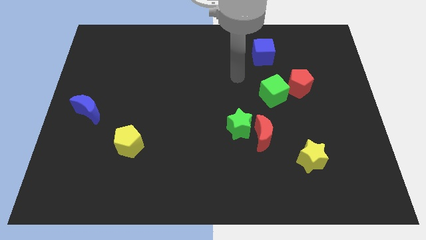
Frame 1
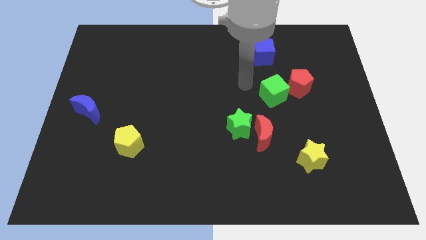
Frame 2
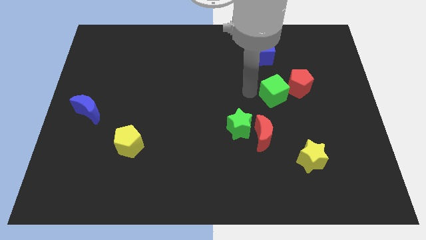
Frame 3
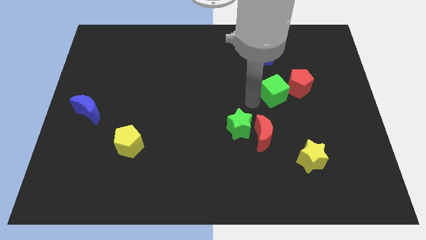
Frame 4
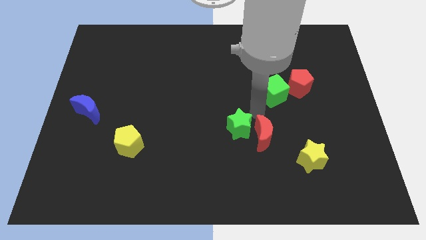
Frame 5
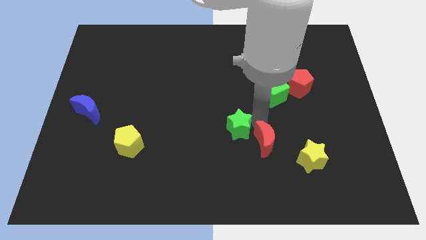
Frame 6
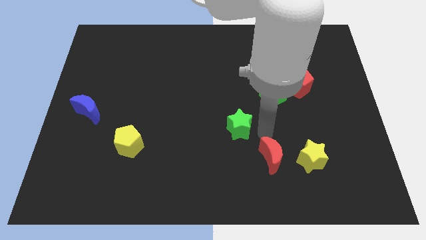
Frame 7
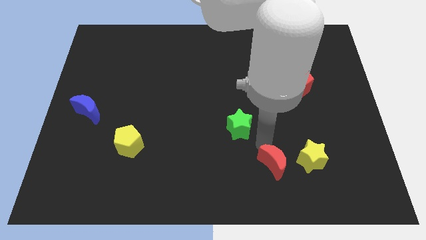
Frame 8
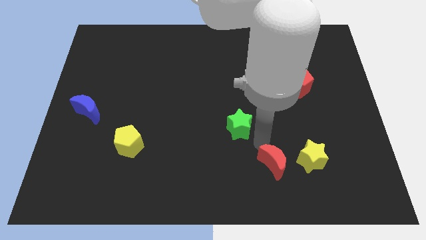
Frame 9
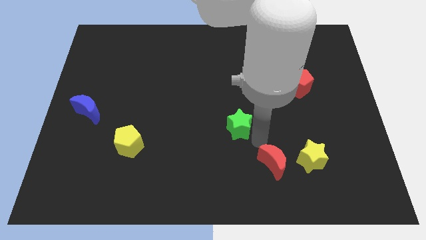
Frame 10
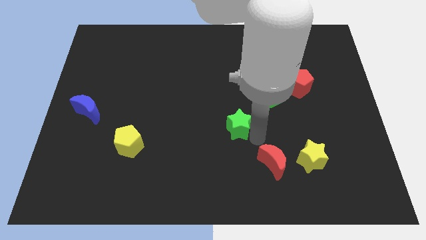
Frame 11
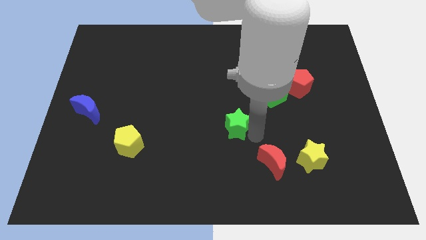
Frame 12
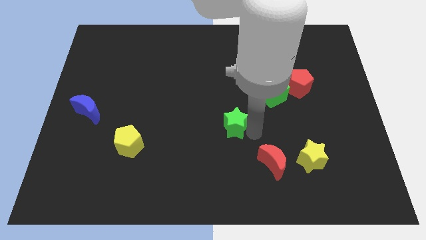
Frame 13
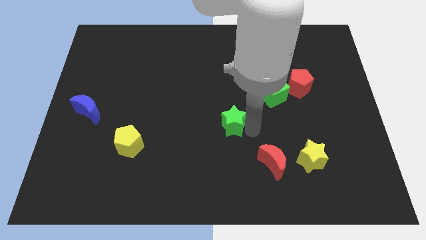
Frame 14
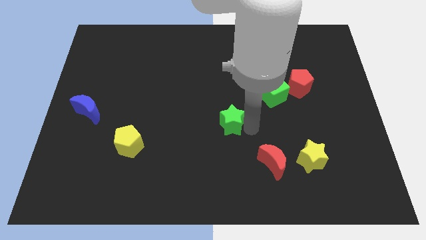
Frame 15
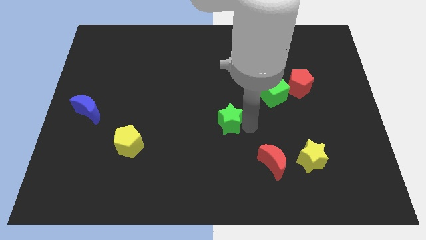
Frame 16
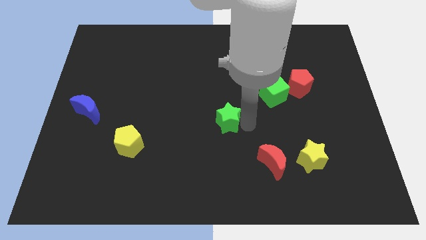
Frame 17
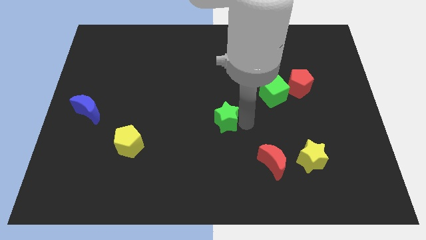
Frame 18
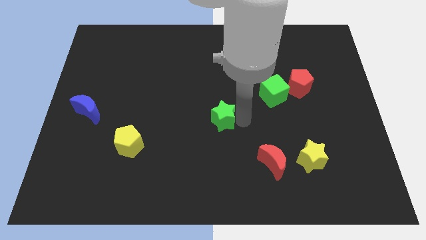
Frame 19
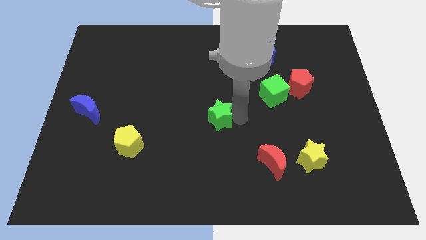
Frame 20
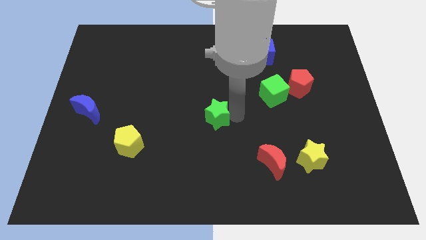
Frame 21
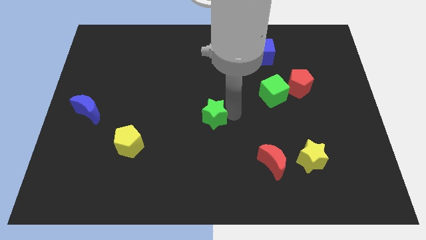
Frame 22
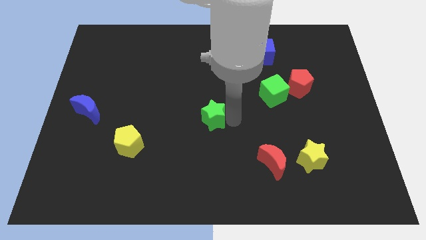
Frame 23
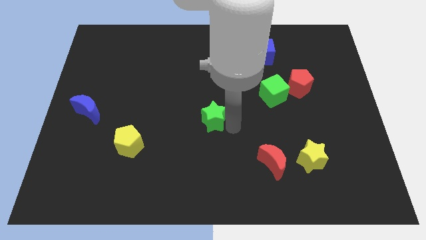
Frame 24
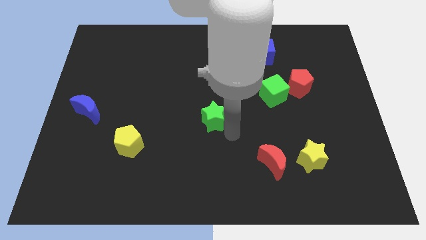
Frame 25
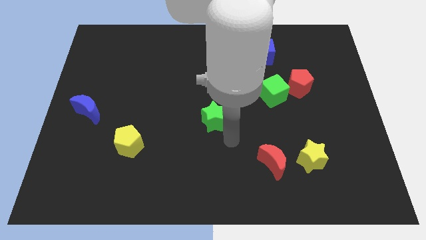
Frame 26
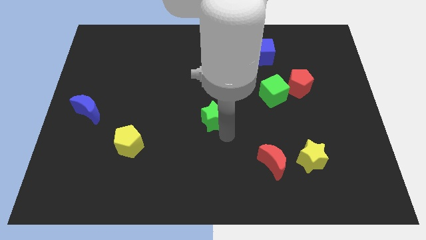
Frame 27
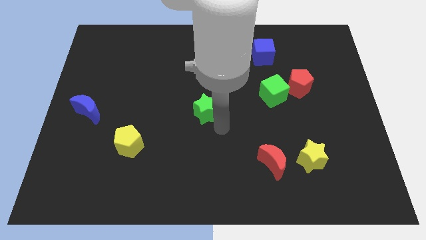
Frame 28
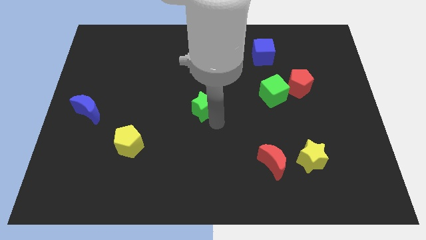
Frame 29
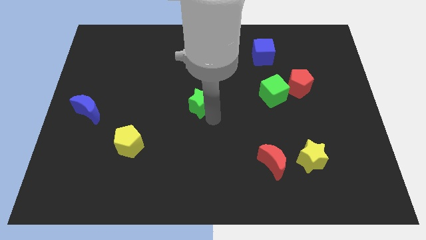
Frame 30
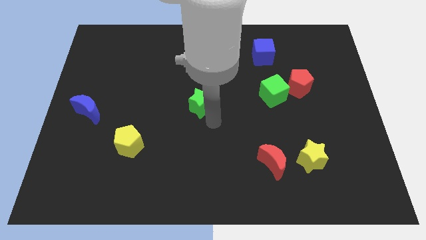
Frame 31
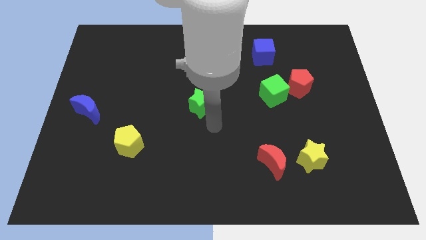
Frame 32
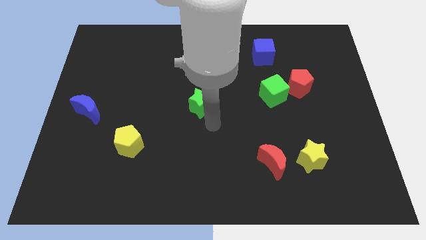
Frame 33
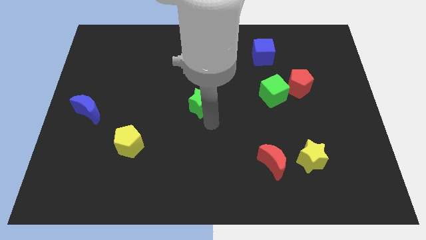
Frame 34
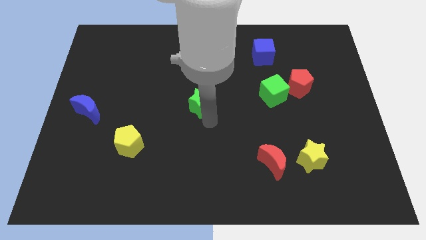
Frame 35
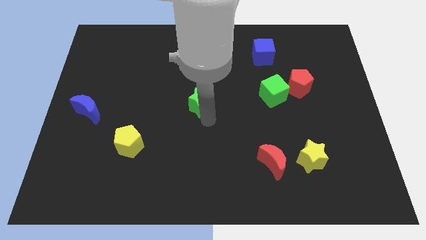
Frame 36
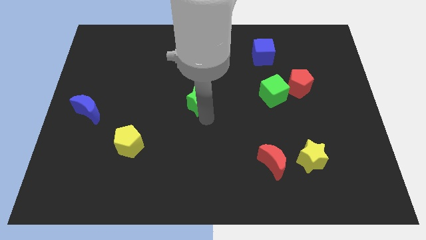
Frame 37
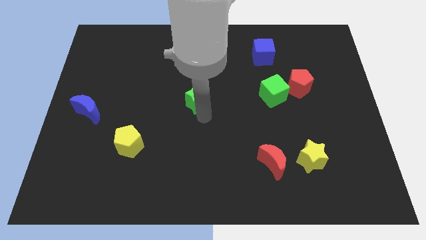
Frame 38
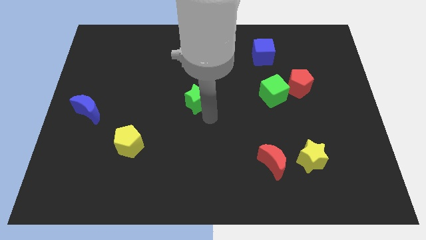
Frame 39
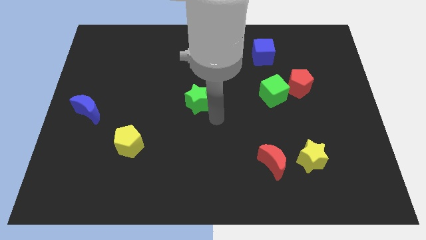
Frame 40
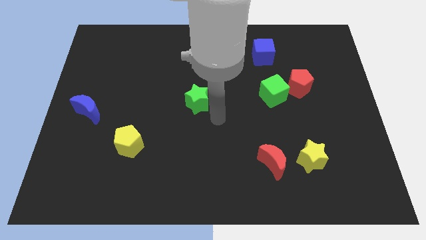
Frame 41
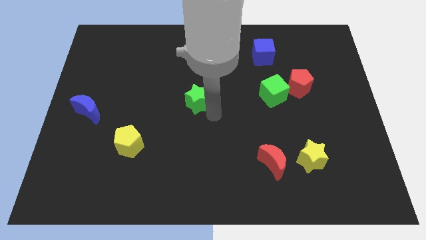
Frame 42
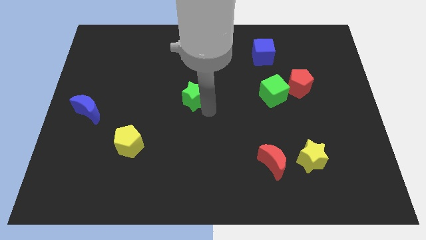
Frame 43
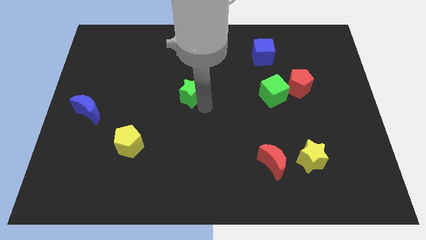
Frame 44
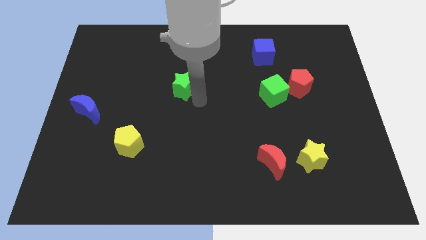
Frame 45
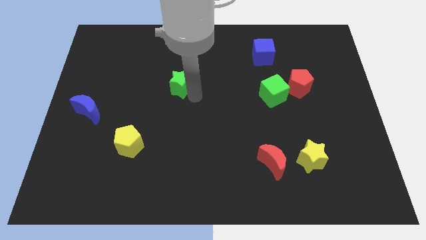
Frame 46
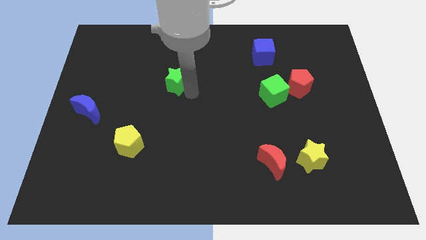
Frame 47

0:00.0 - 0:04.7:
slide the green star upwards and to the left diagonally

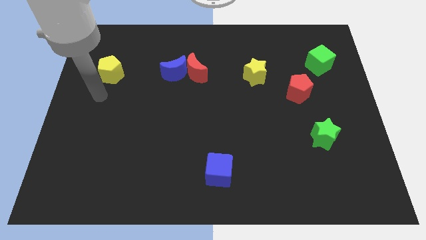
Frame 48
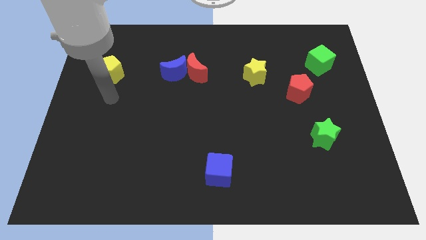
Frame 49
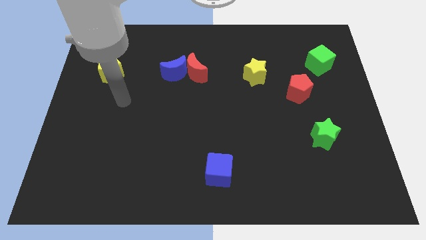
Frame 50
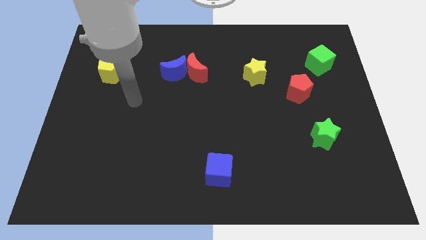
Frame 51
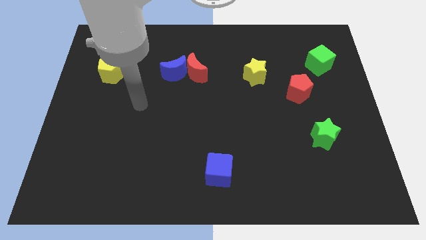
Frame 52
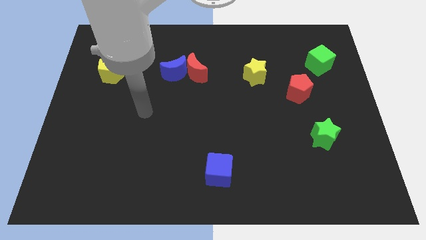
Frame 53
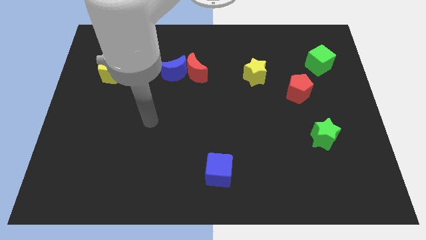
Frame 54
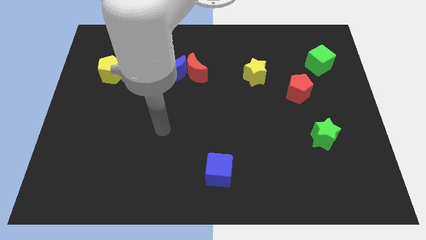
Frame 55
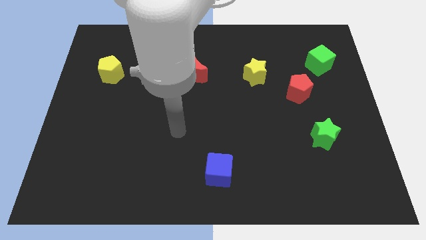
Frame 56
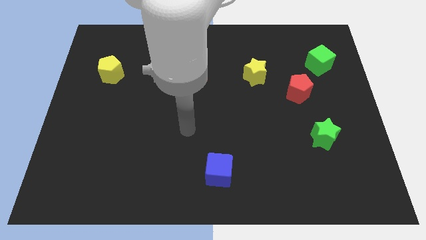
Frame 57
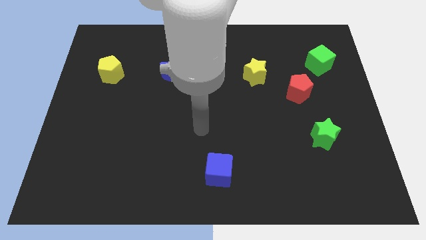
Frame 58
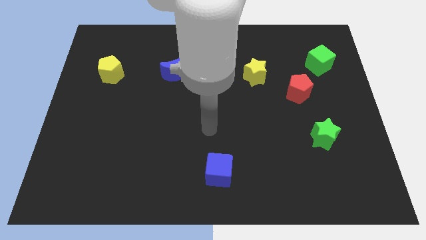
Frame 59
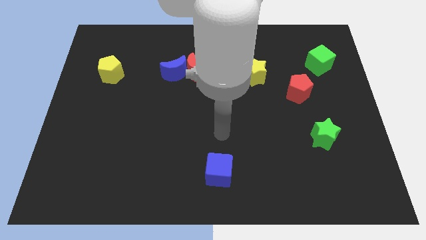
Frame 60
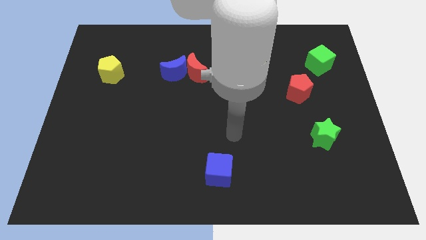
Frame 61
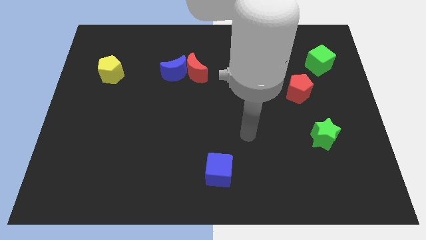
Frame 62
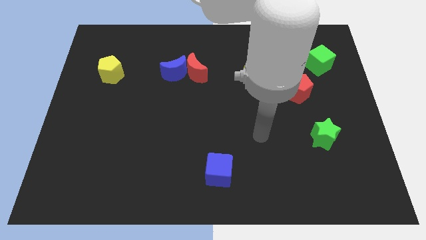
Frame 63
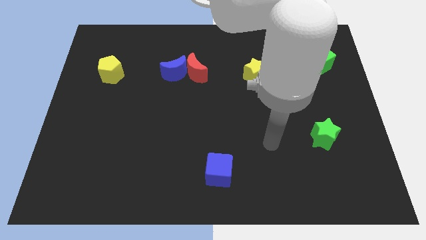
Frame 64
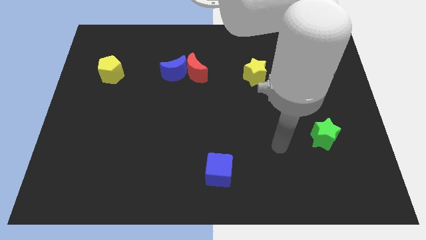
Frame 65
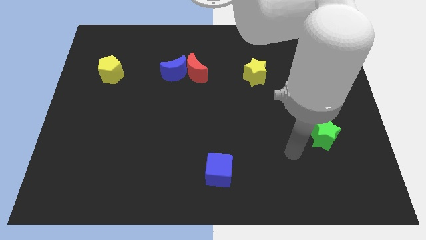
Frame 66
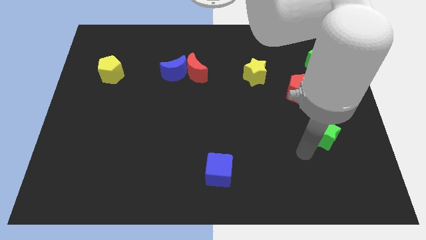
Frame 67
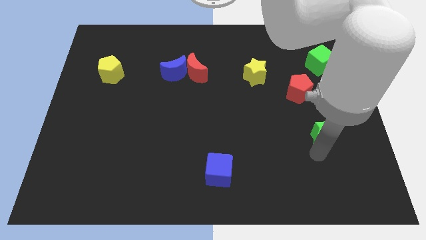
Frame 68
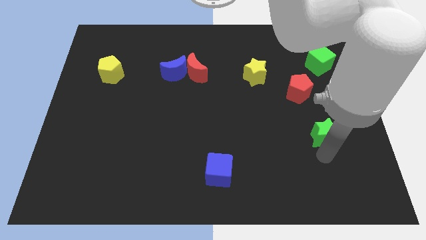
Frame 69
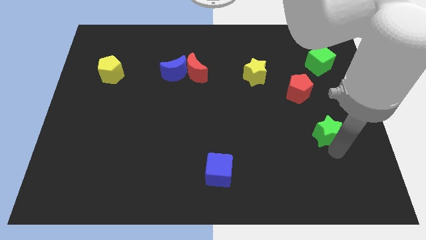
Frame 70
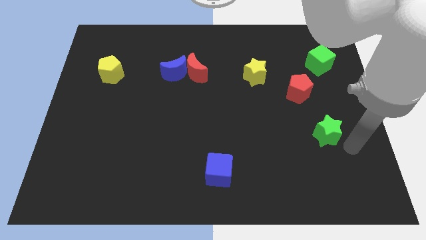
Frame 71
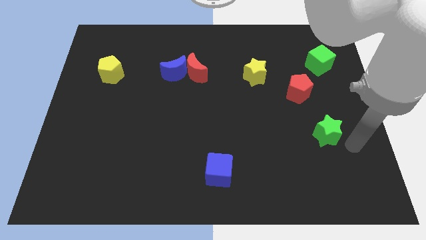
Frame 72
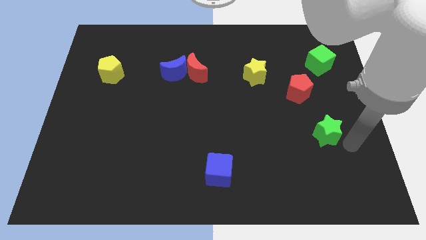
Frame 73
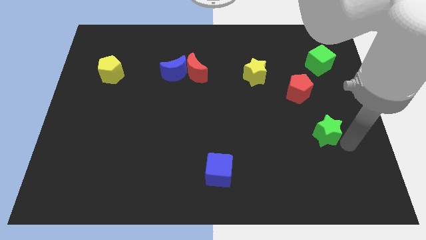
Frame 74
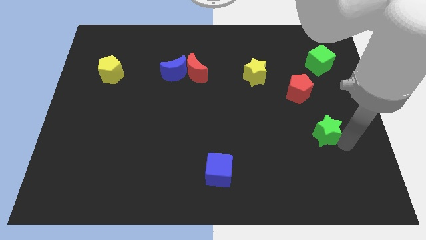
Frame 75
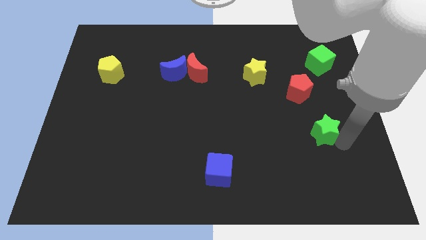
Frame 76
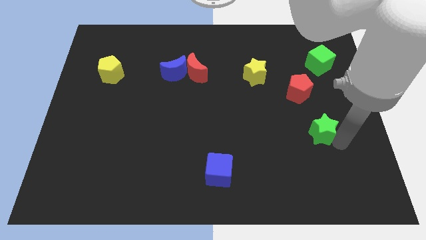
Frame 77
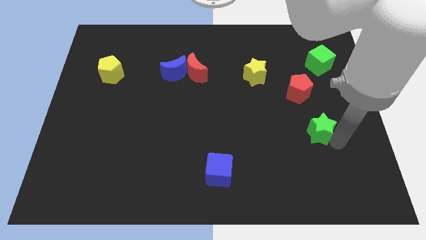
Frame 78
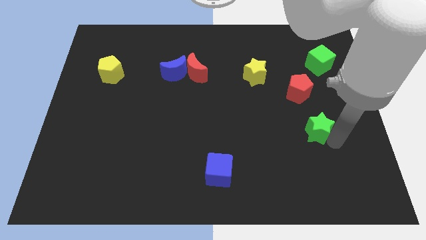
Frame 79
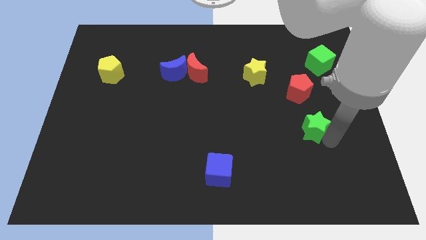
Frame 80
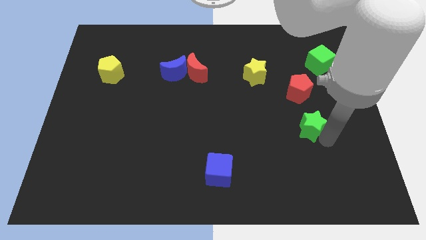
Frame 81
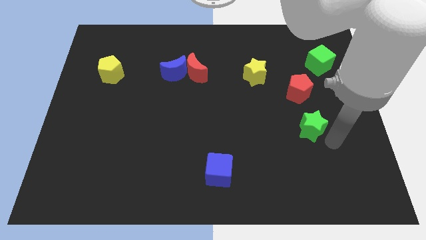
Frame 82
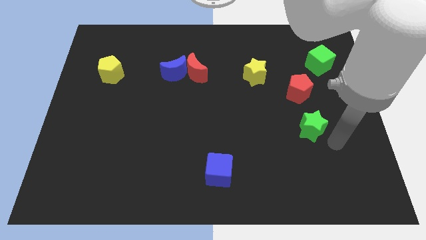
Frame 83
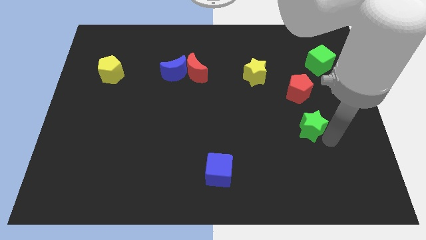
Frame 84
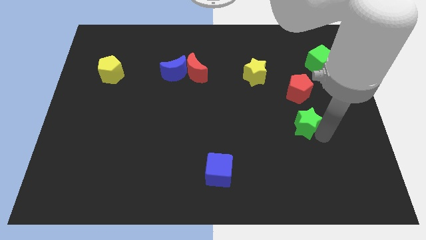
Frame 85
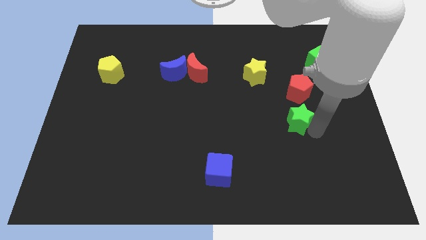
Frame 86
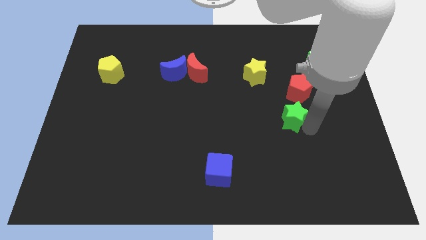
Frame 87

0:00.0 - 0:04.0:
slide the green star diagonally up and left slightly
